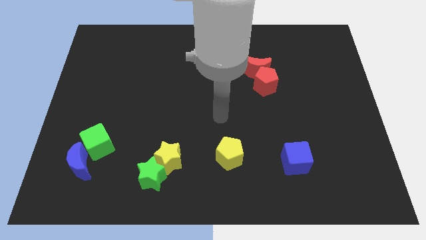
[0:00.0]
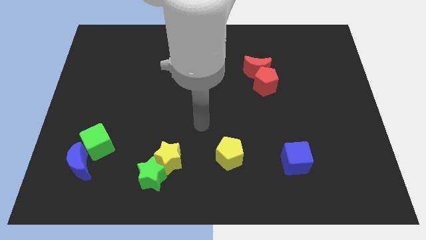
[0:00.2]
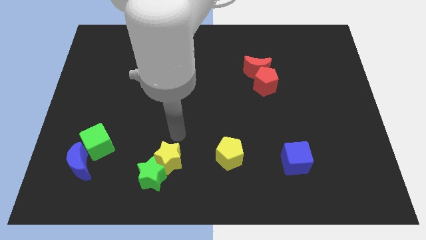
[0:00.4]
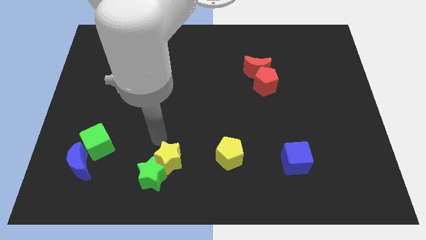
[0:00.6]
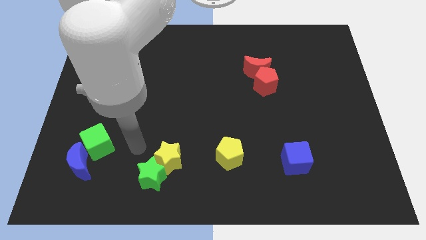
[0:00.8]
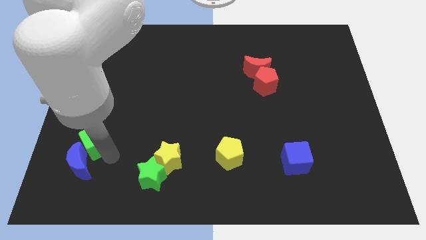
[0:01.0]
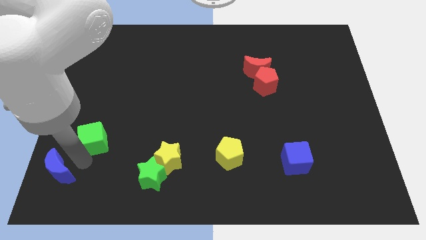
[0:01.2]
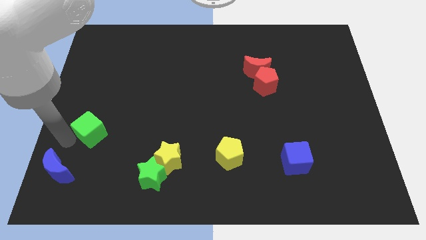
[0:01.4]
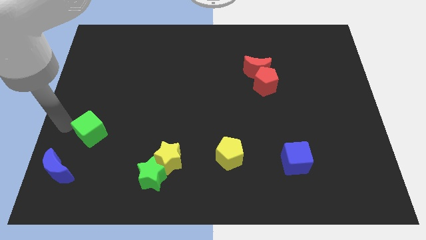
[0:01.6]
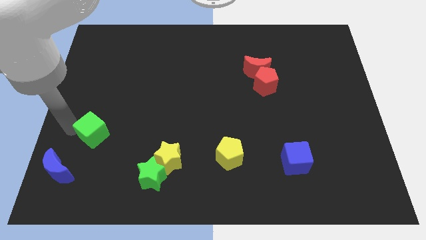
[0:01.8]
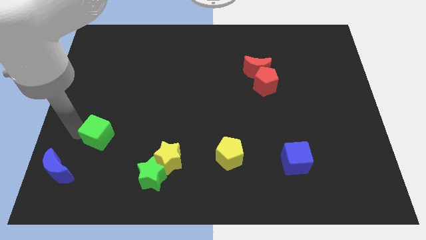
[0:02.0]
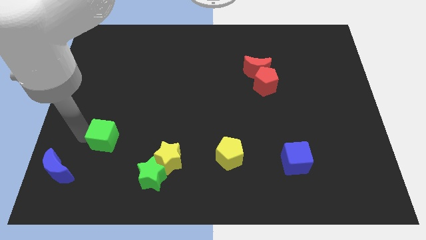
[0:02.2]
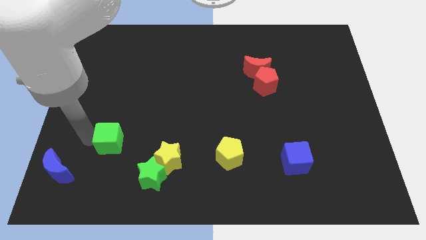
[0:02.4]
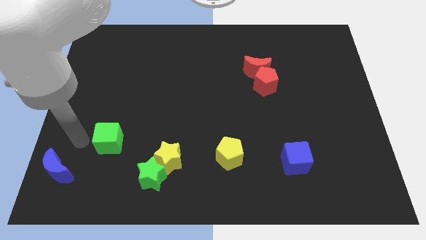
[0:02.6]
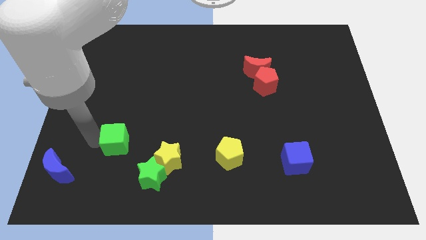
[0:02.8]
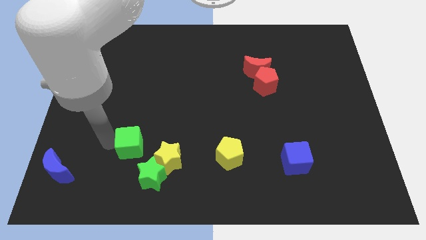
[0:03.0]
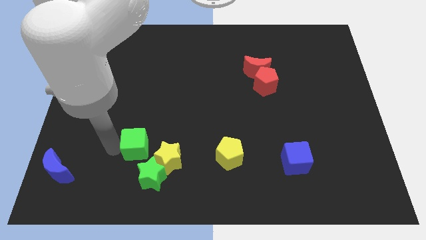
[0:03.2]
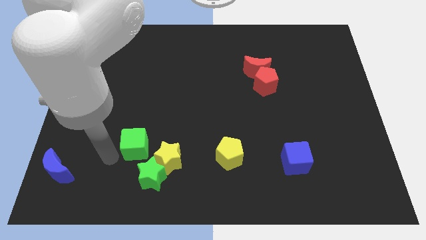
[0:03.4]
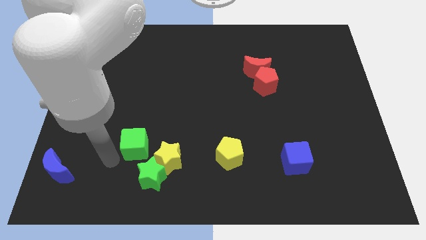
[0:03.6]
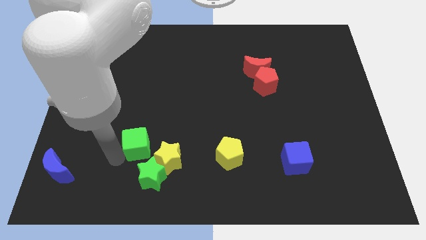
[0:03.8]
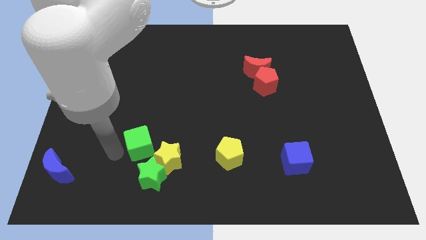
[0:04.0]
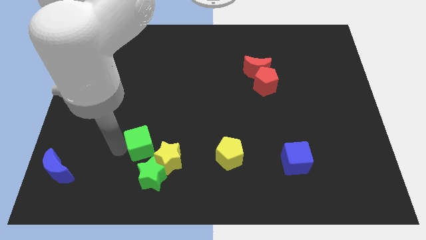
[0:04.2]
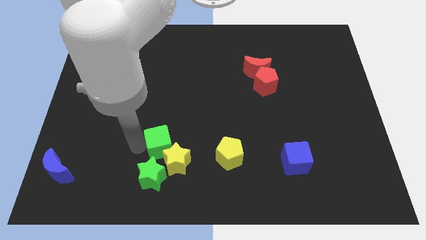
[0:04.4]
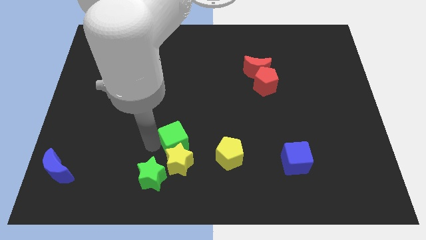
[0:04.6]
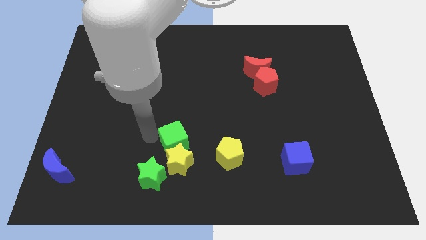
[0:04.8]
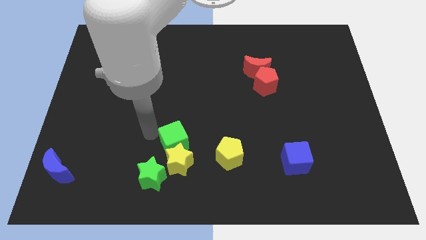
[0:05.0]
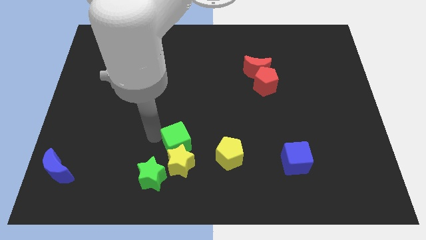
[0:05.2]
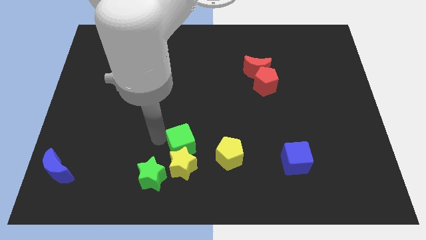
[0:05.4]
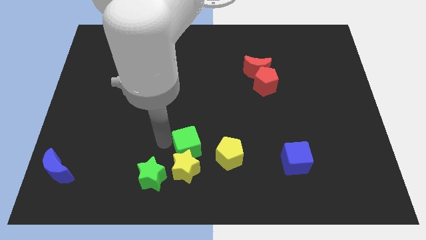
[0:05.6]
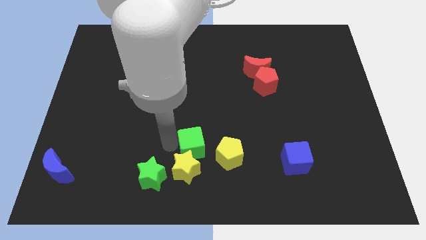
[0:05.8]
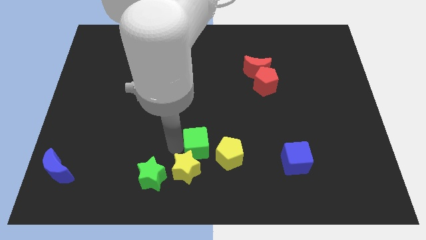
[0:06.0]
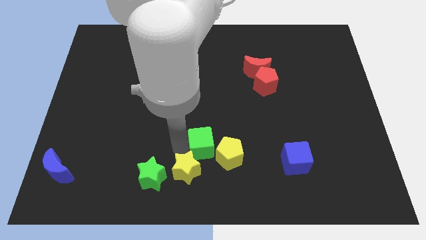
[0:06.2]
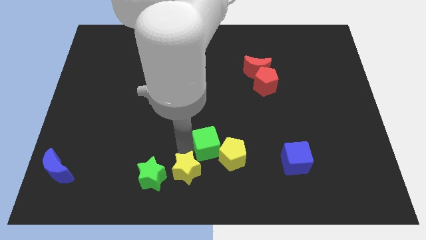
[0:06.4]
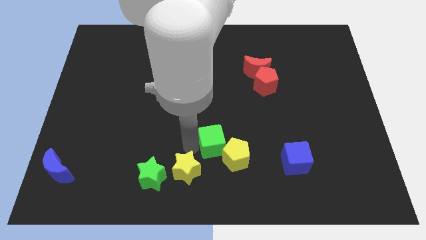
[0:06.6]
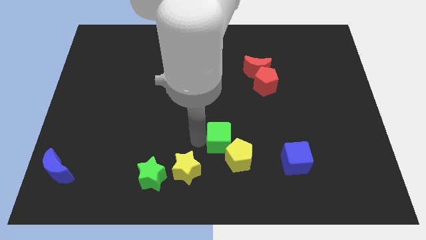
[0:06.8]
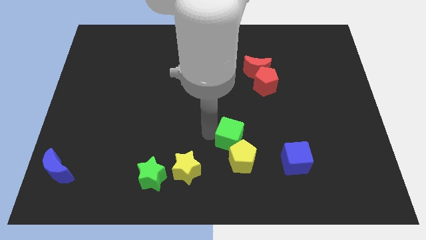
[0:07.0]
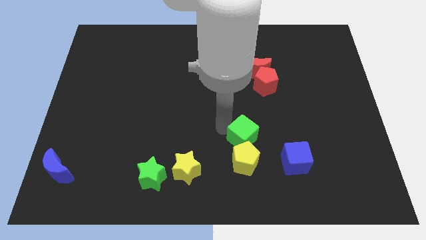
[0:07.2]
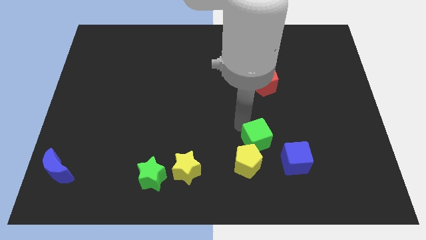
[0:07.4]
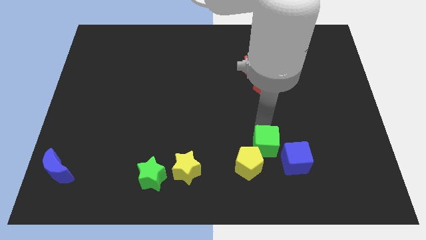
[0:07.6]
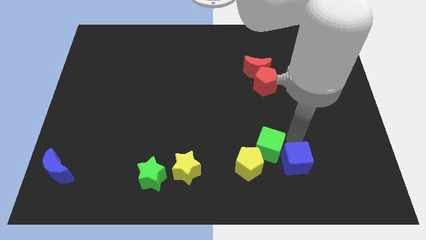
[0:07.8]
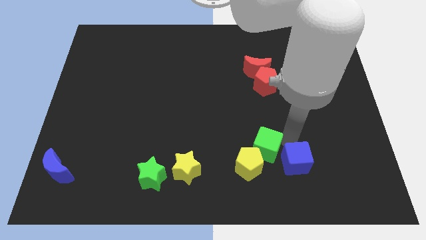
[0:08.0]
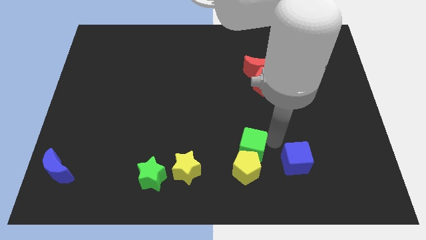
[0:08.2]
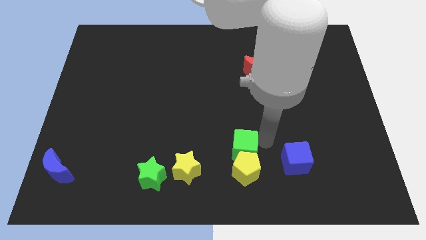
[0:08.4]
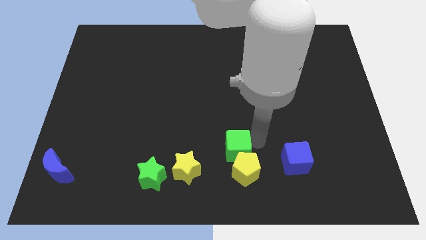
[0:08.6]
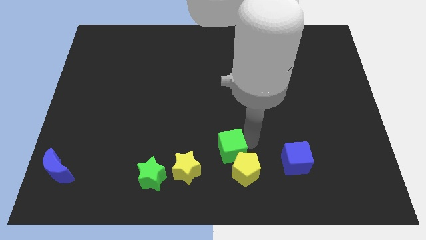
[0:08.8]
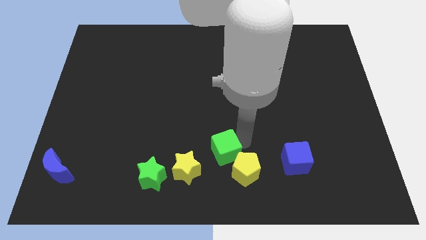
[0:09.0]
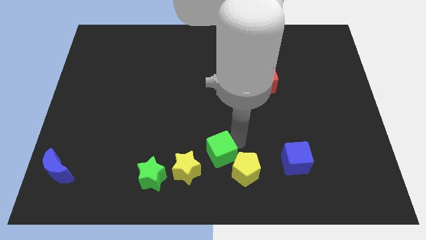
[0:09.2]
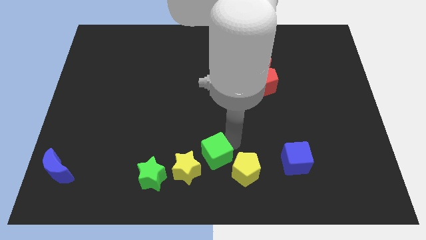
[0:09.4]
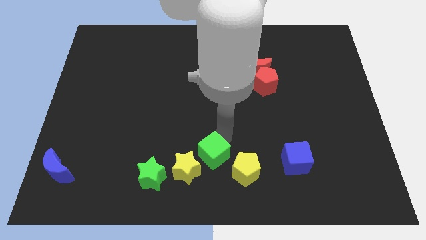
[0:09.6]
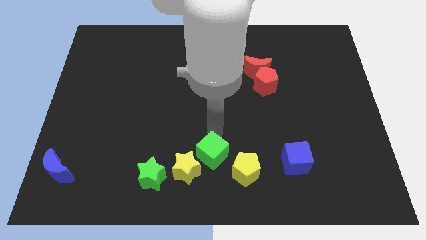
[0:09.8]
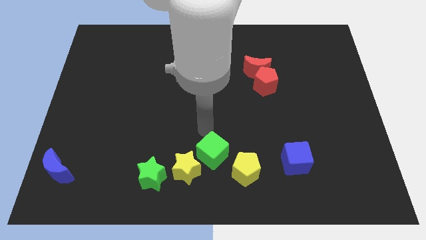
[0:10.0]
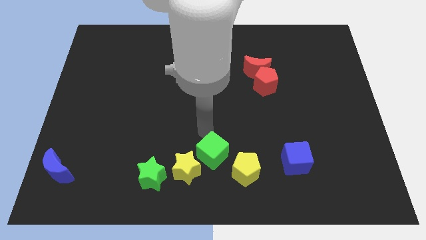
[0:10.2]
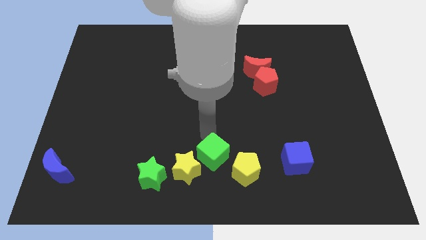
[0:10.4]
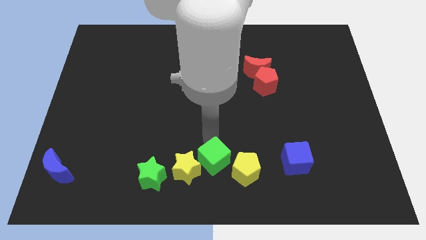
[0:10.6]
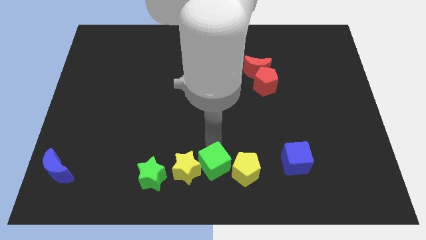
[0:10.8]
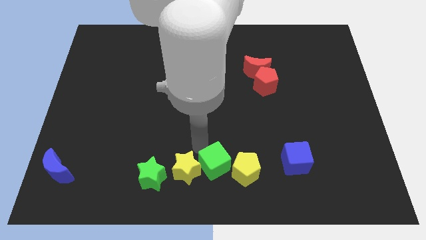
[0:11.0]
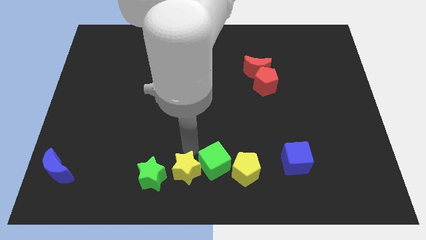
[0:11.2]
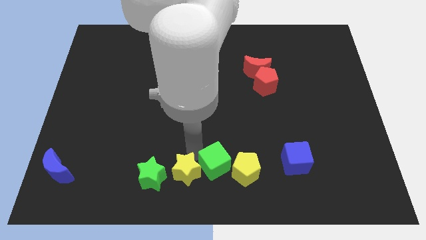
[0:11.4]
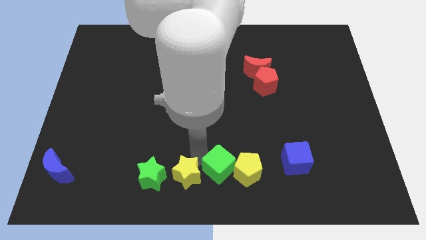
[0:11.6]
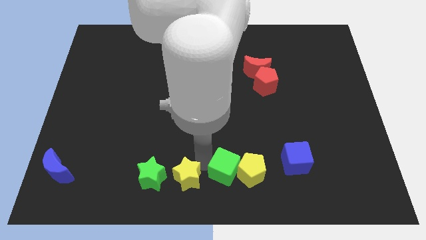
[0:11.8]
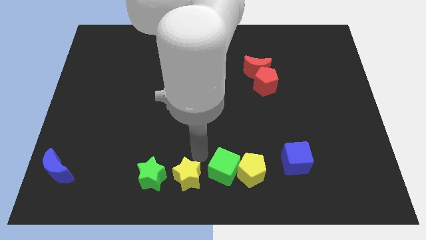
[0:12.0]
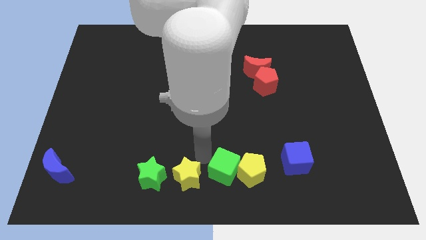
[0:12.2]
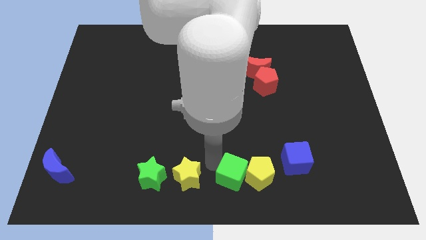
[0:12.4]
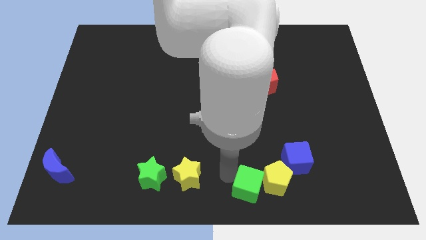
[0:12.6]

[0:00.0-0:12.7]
move the green cube to the bottom left of the blue cube

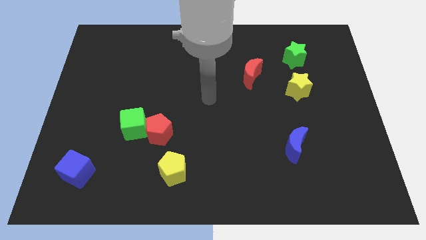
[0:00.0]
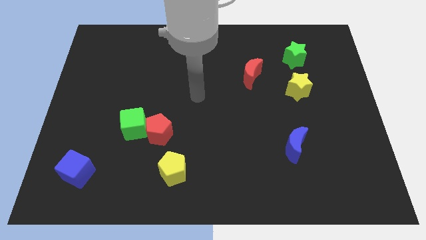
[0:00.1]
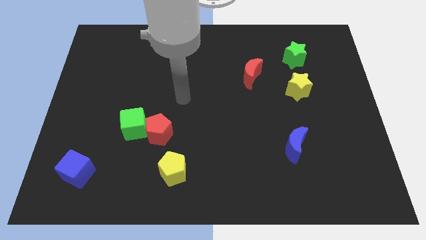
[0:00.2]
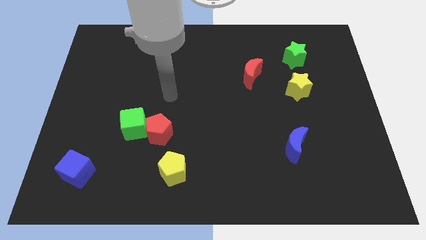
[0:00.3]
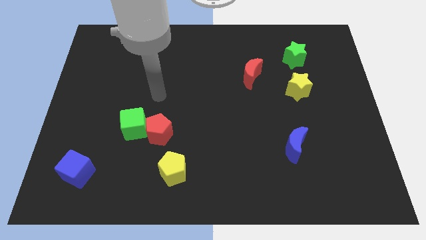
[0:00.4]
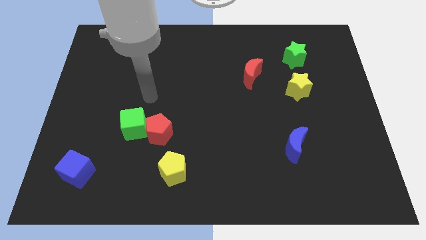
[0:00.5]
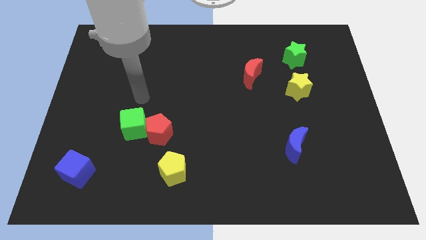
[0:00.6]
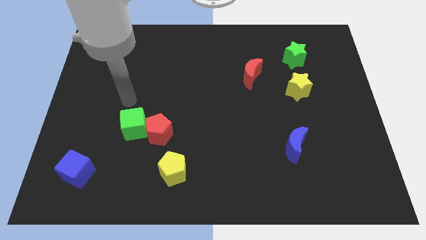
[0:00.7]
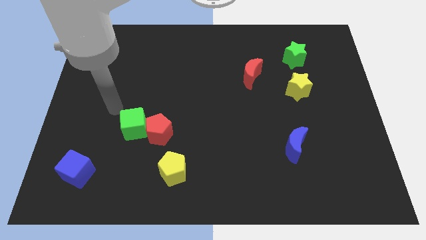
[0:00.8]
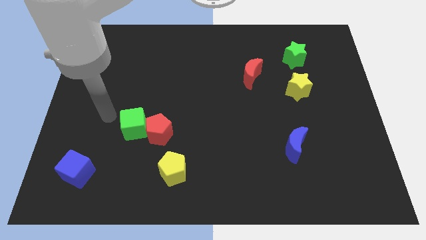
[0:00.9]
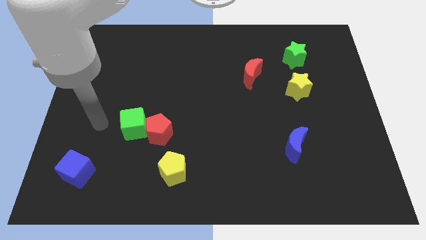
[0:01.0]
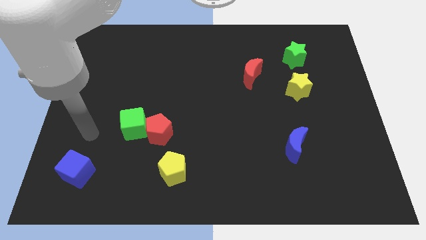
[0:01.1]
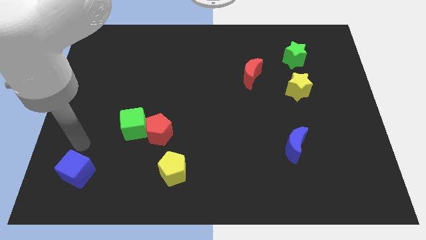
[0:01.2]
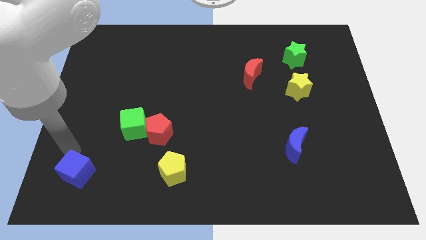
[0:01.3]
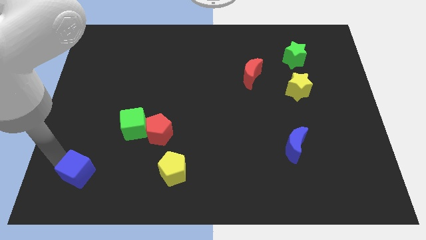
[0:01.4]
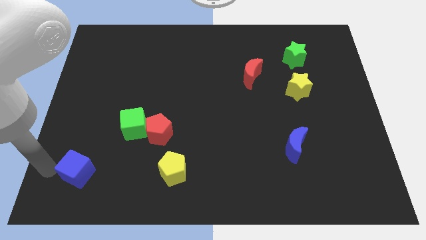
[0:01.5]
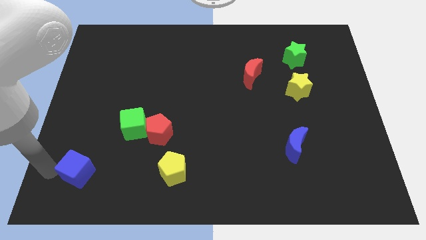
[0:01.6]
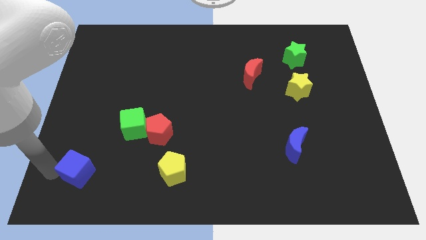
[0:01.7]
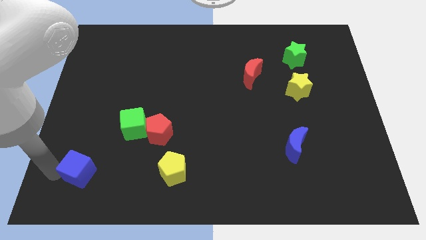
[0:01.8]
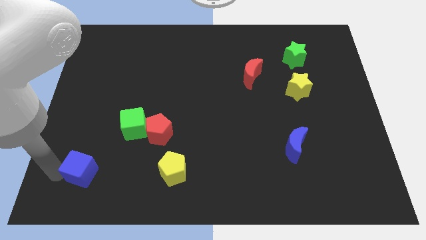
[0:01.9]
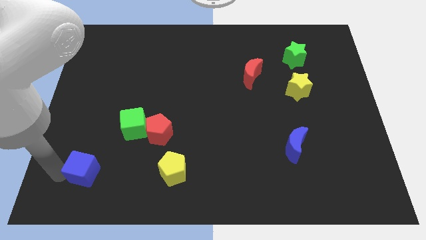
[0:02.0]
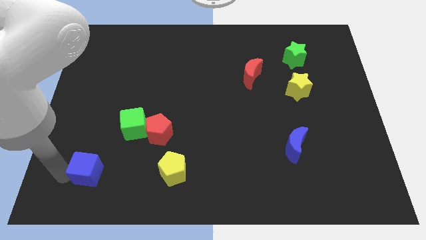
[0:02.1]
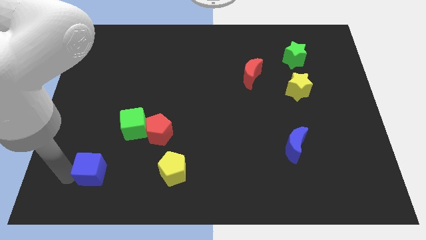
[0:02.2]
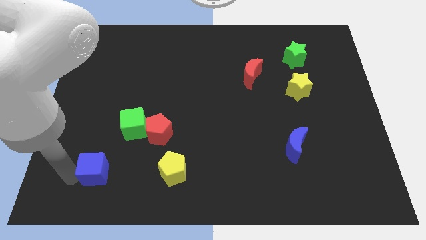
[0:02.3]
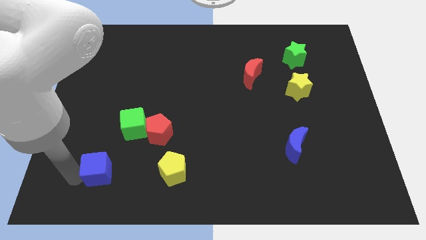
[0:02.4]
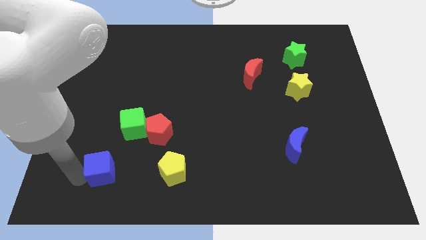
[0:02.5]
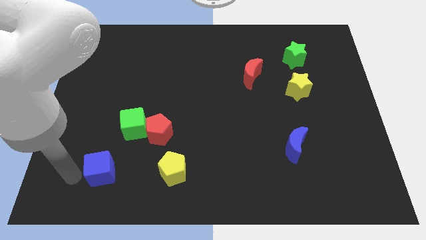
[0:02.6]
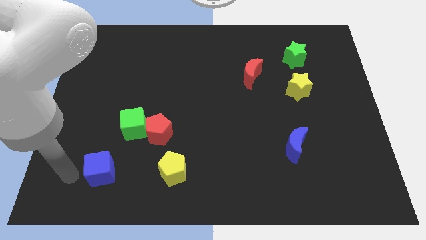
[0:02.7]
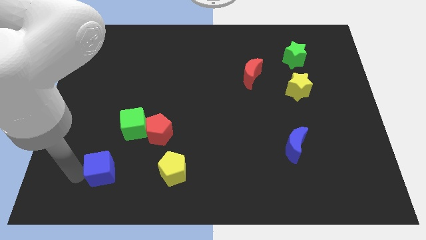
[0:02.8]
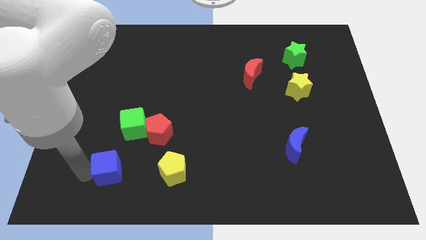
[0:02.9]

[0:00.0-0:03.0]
move the blue cube below the green cube
